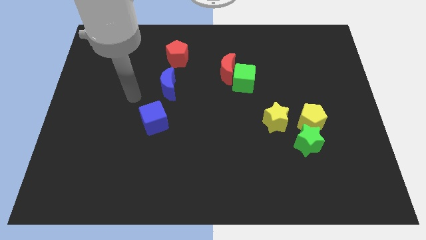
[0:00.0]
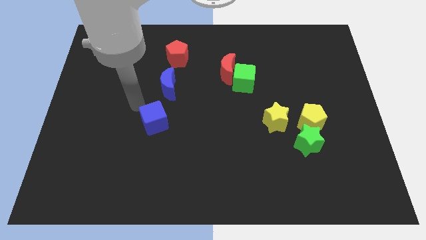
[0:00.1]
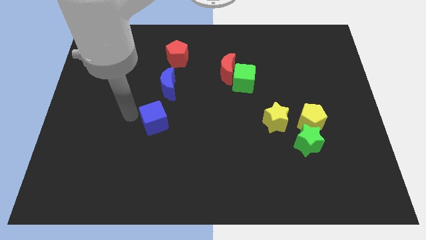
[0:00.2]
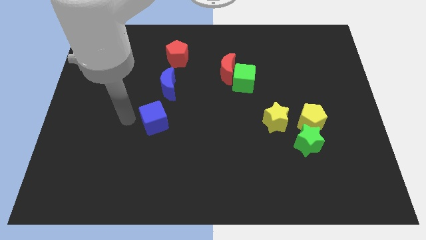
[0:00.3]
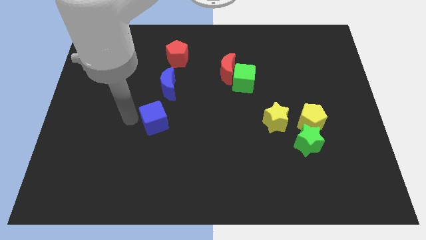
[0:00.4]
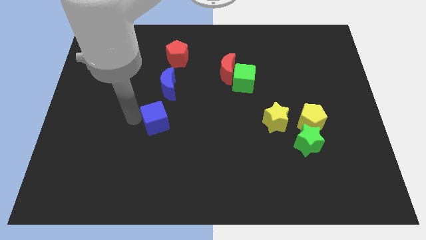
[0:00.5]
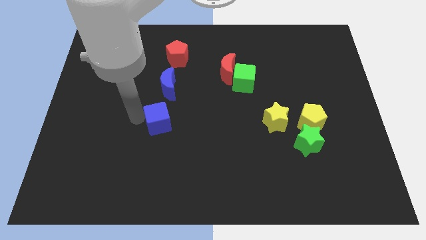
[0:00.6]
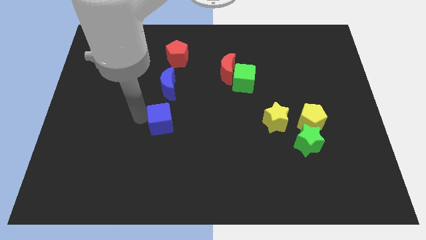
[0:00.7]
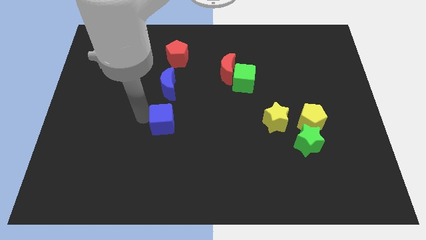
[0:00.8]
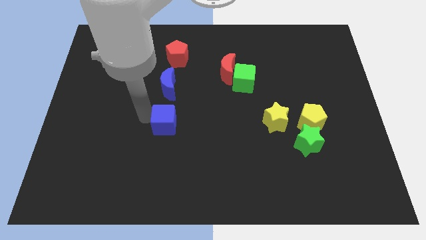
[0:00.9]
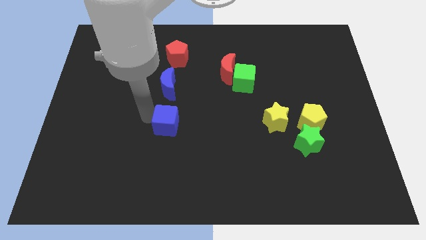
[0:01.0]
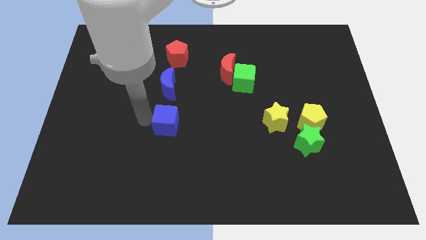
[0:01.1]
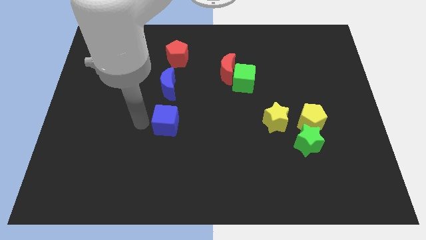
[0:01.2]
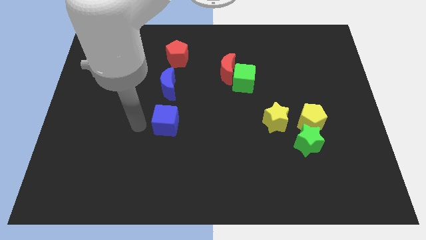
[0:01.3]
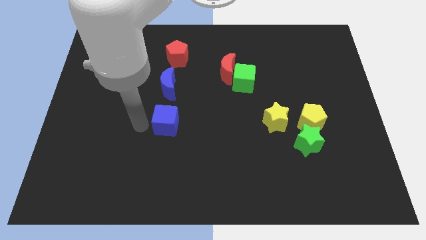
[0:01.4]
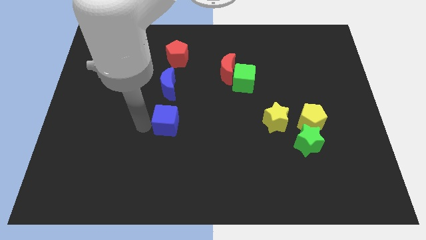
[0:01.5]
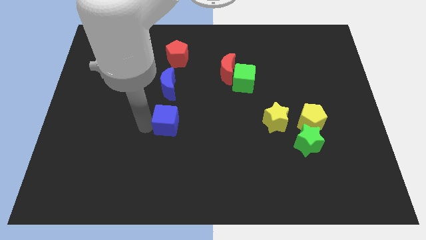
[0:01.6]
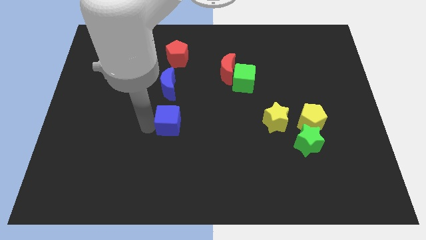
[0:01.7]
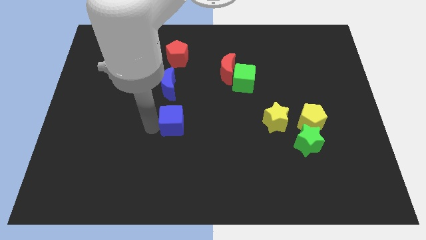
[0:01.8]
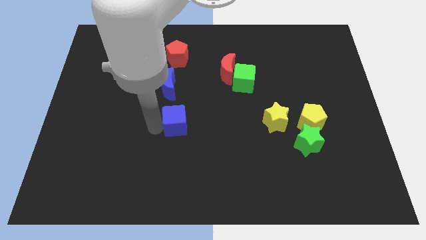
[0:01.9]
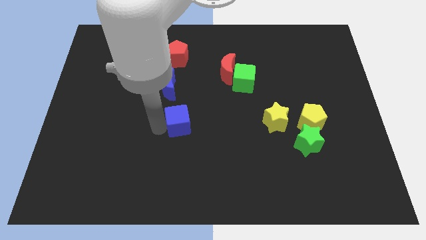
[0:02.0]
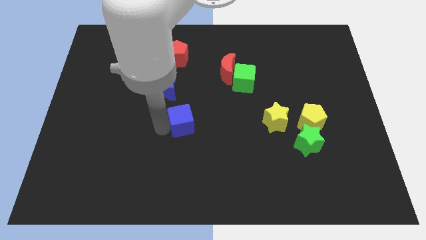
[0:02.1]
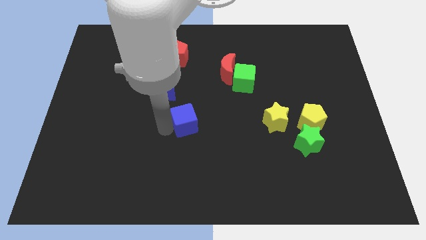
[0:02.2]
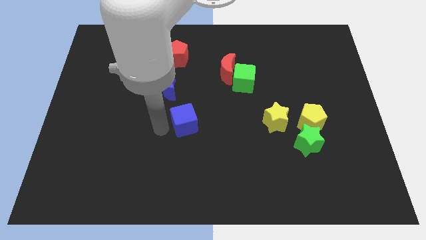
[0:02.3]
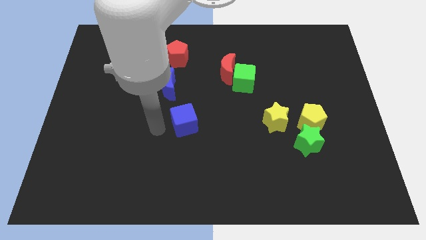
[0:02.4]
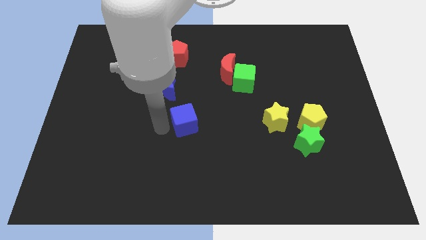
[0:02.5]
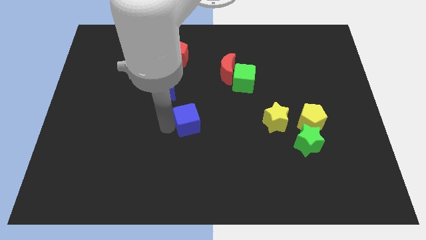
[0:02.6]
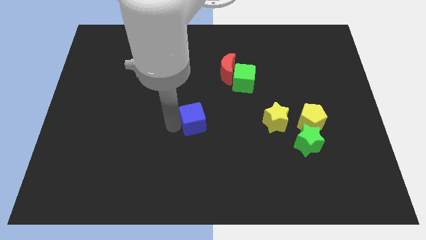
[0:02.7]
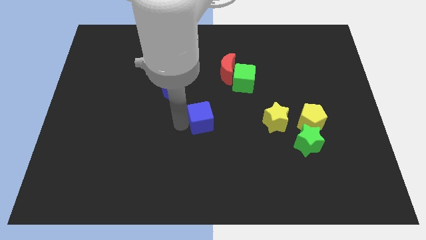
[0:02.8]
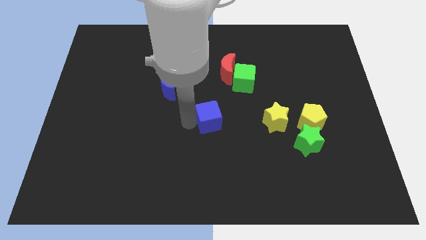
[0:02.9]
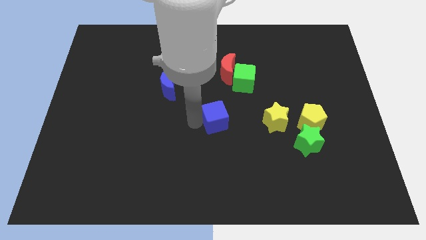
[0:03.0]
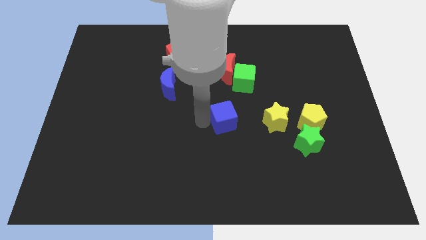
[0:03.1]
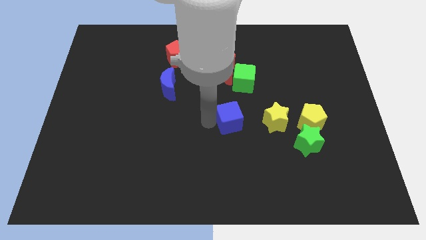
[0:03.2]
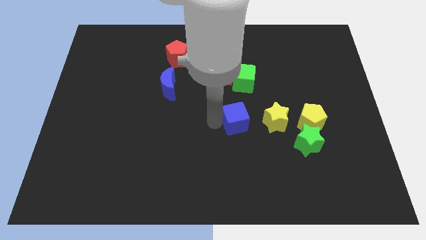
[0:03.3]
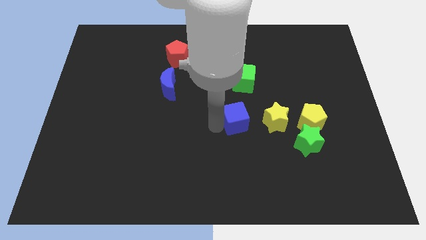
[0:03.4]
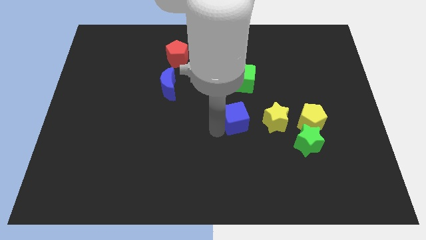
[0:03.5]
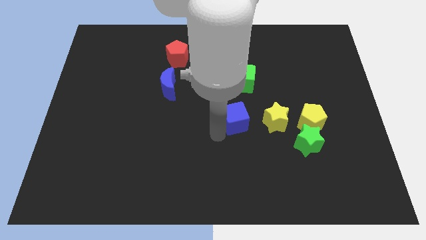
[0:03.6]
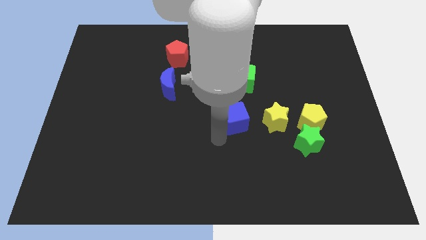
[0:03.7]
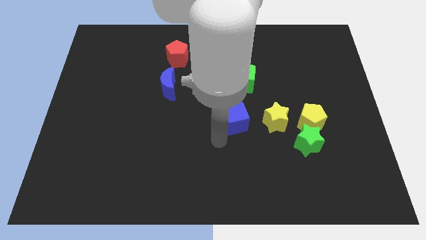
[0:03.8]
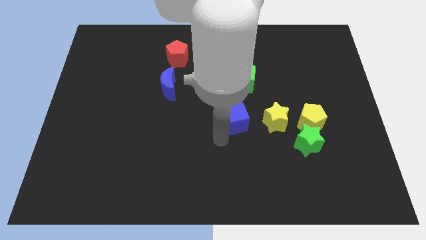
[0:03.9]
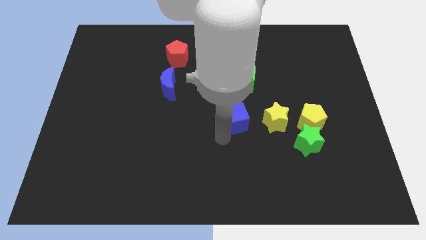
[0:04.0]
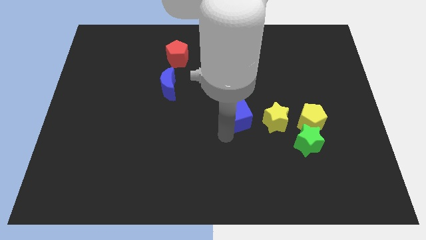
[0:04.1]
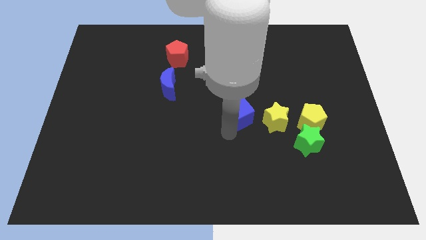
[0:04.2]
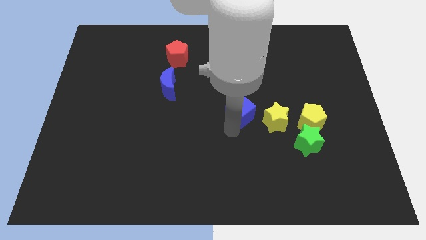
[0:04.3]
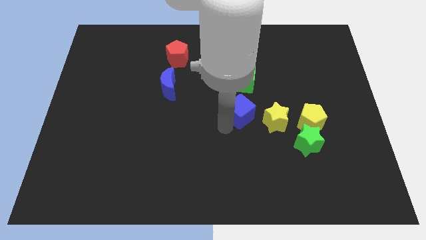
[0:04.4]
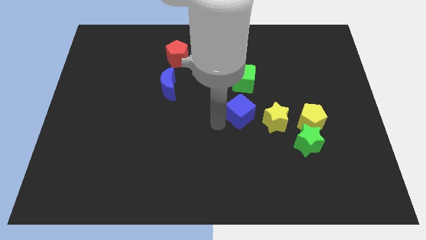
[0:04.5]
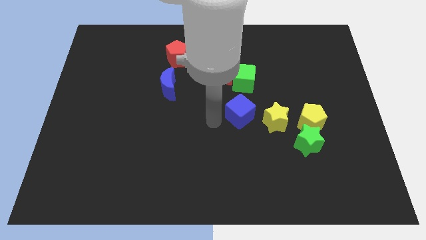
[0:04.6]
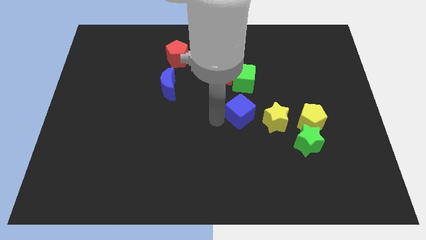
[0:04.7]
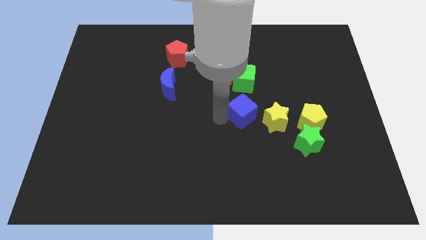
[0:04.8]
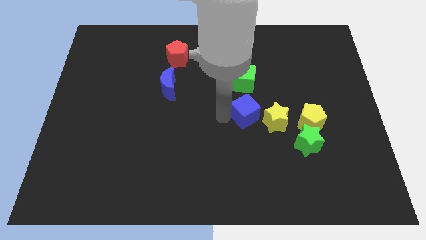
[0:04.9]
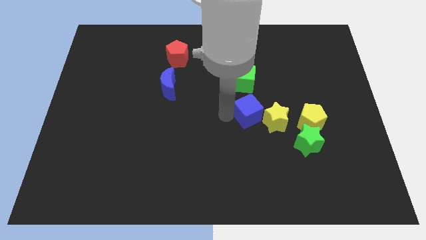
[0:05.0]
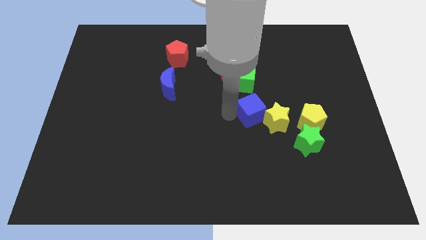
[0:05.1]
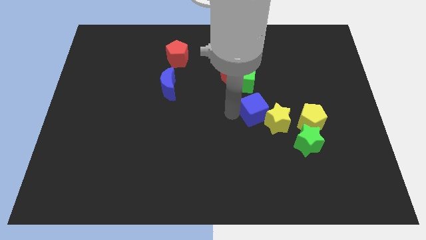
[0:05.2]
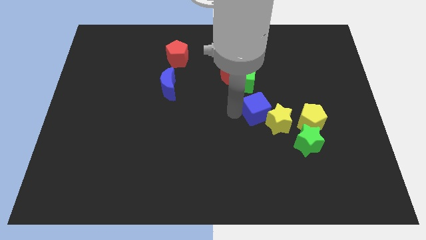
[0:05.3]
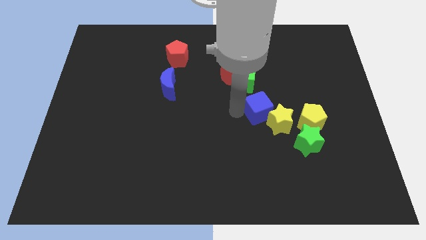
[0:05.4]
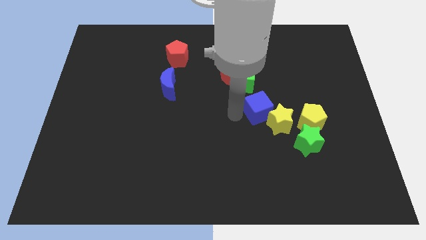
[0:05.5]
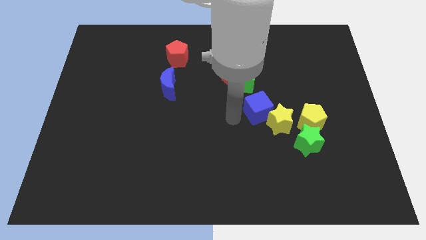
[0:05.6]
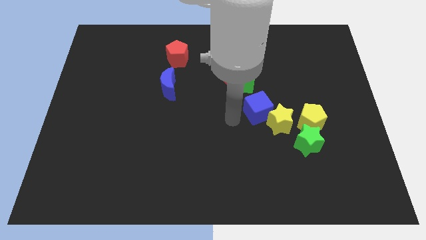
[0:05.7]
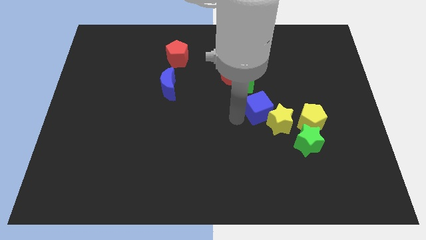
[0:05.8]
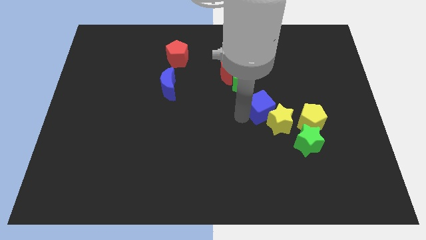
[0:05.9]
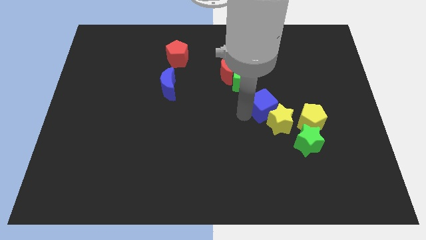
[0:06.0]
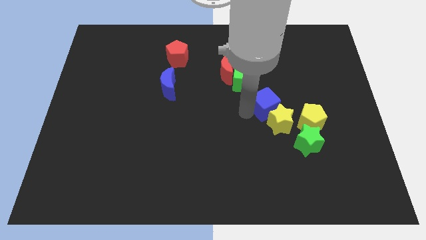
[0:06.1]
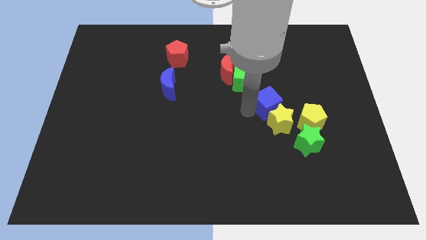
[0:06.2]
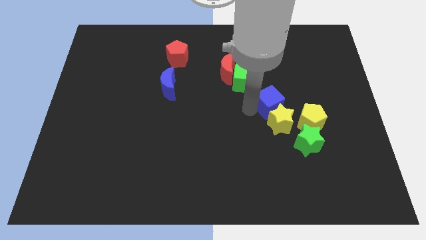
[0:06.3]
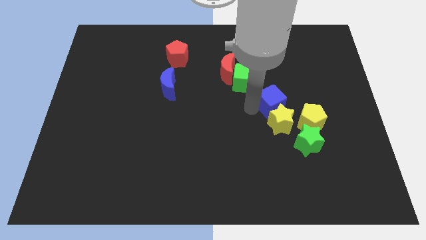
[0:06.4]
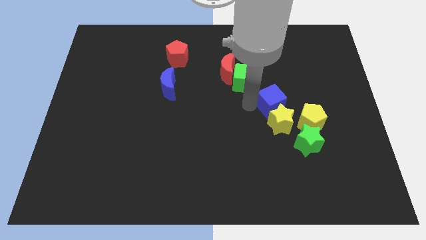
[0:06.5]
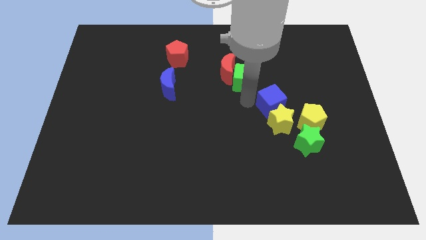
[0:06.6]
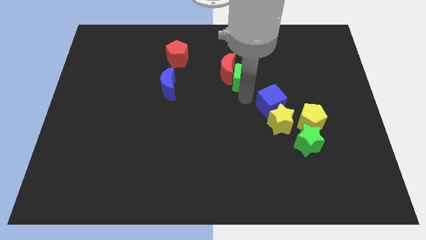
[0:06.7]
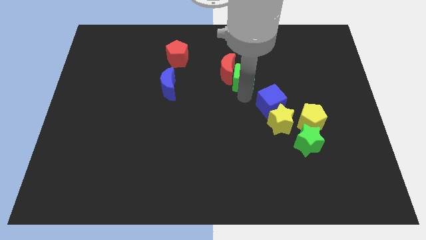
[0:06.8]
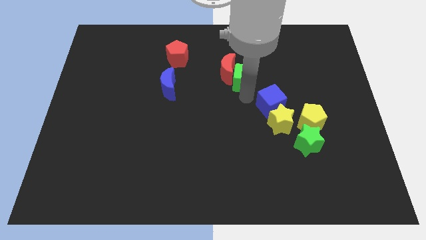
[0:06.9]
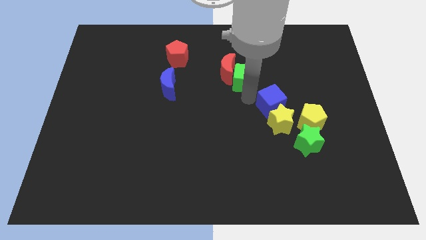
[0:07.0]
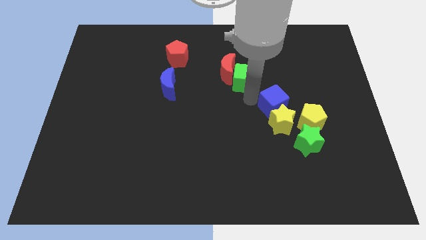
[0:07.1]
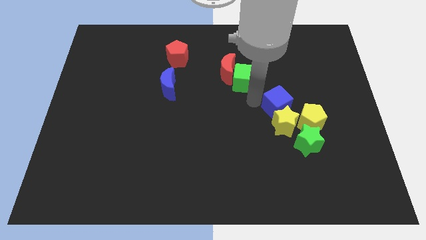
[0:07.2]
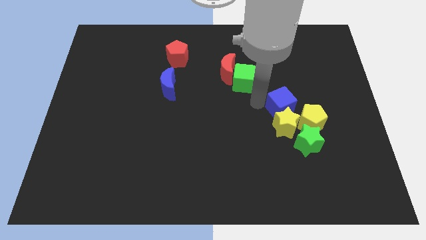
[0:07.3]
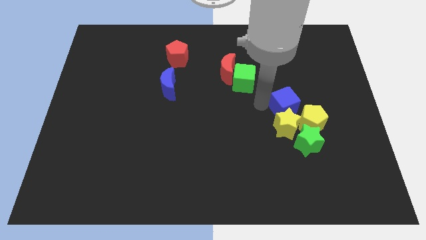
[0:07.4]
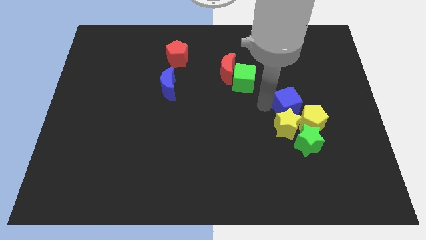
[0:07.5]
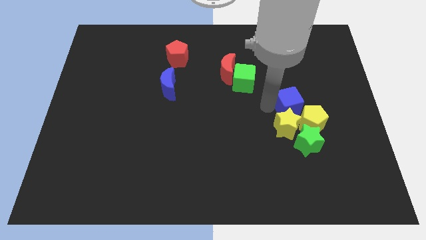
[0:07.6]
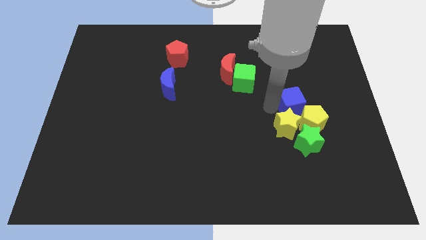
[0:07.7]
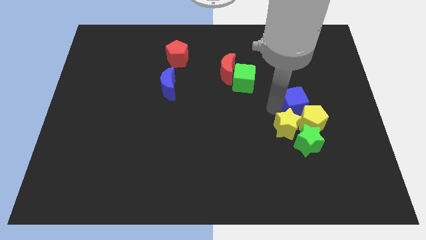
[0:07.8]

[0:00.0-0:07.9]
move the blue cube to the yellow pentagon

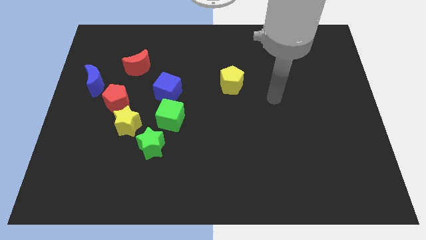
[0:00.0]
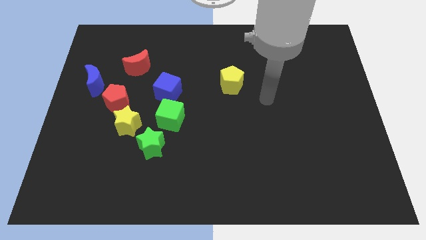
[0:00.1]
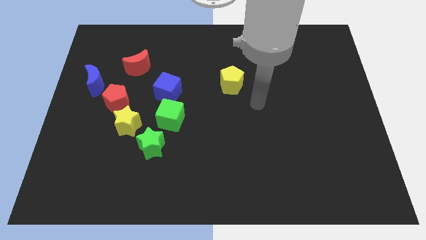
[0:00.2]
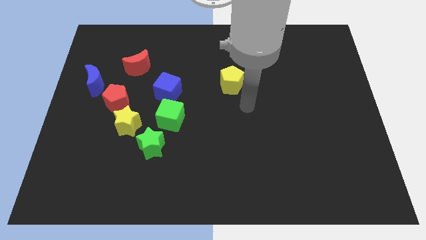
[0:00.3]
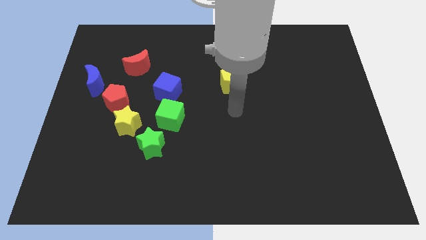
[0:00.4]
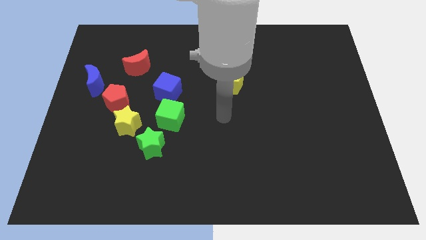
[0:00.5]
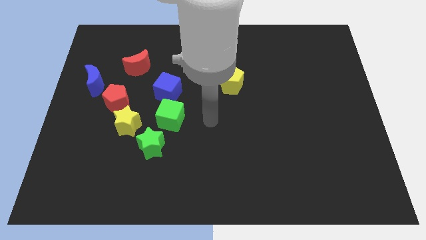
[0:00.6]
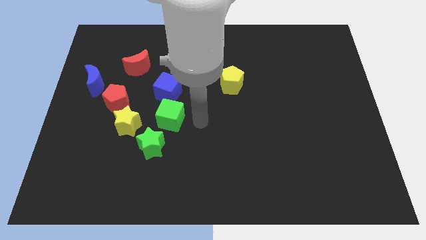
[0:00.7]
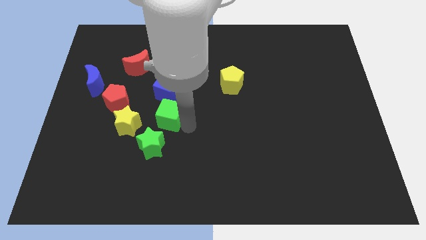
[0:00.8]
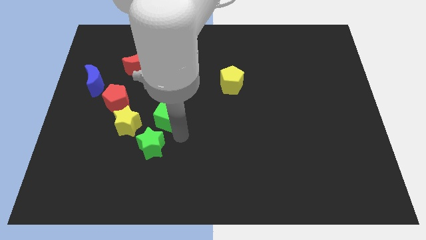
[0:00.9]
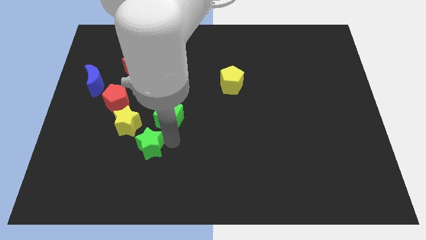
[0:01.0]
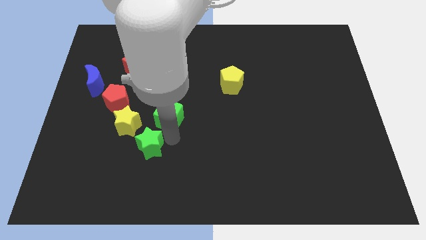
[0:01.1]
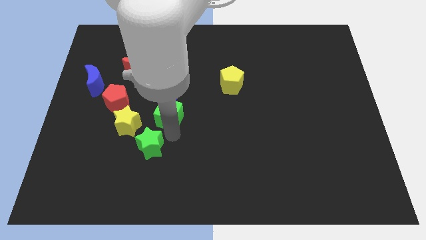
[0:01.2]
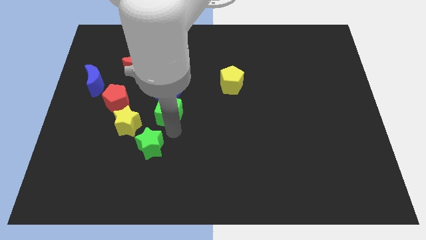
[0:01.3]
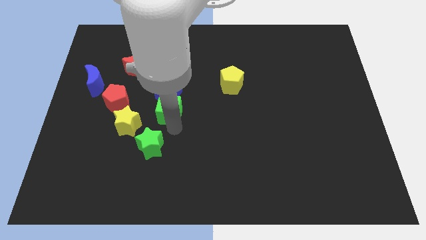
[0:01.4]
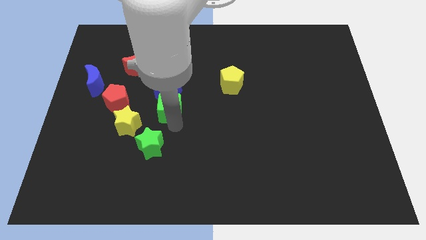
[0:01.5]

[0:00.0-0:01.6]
slide the green cube next to the blue cube
